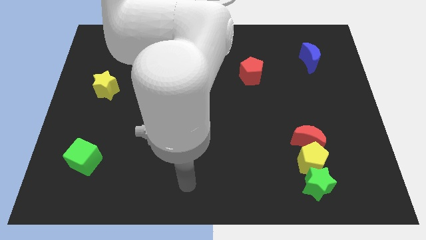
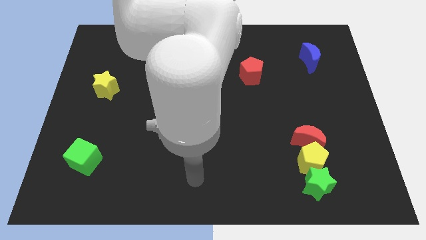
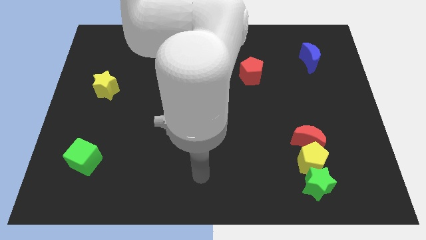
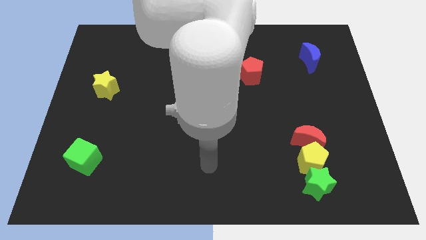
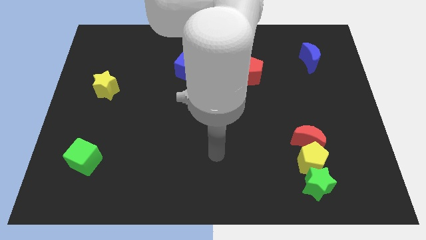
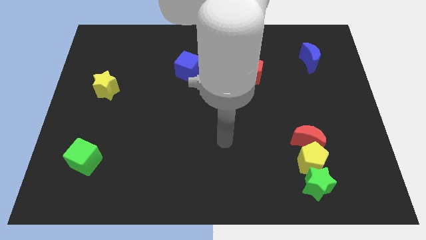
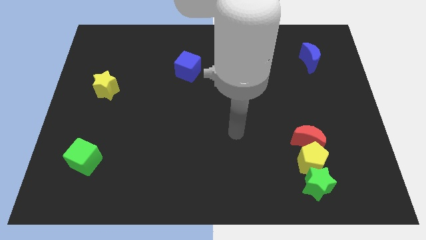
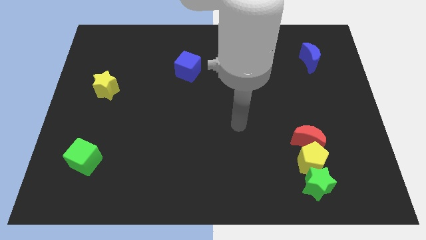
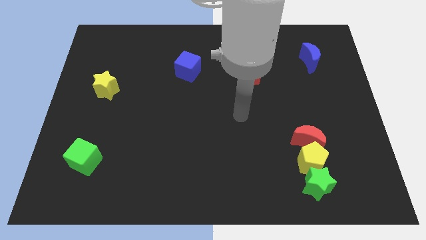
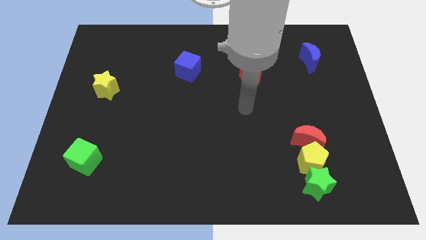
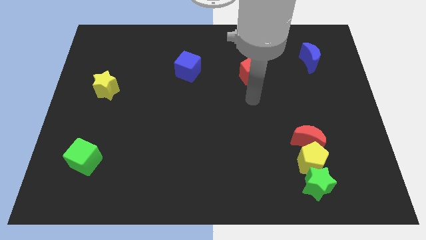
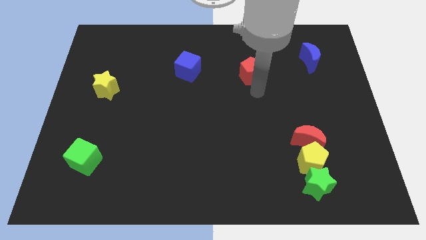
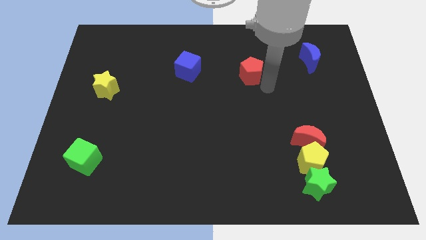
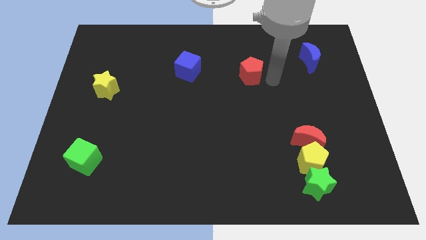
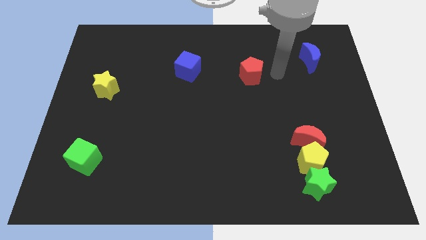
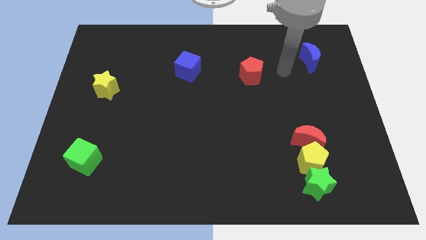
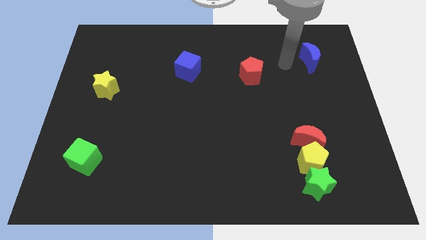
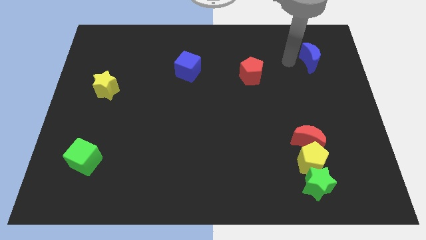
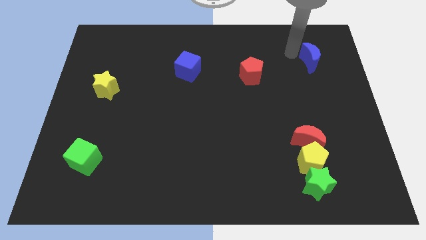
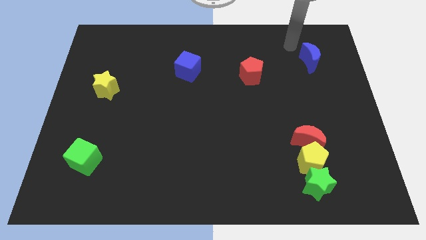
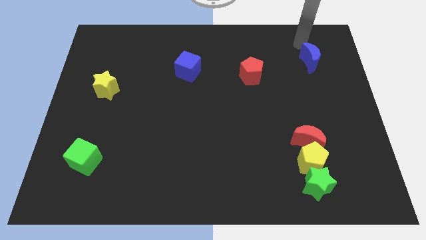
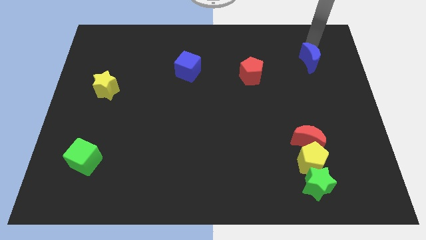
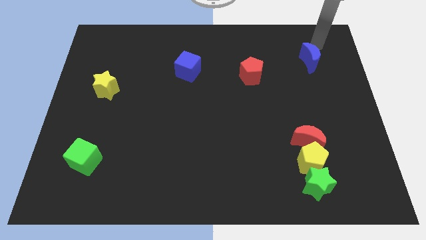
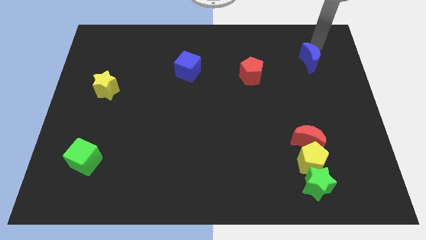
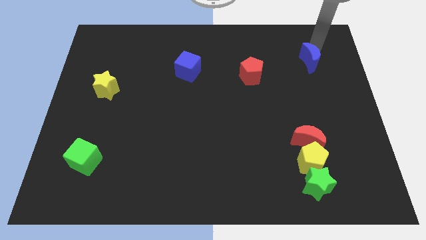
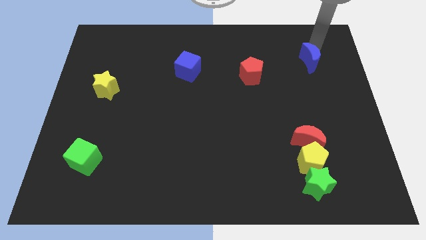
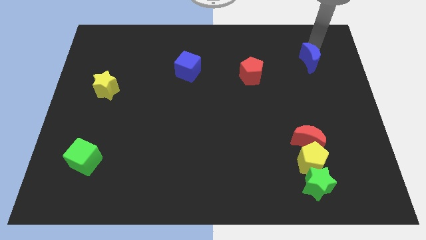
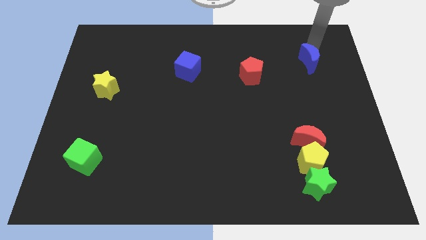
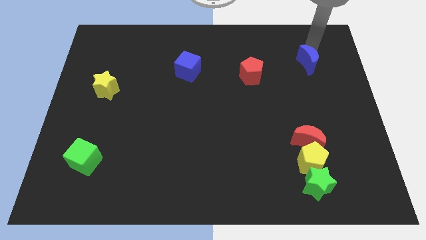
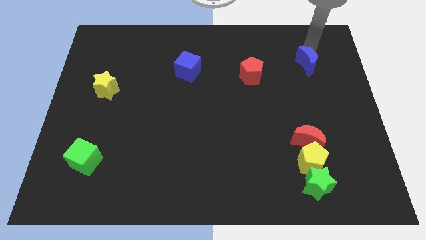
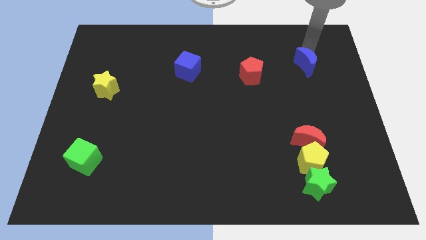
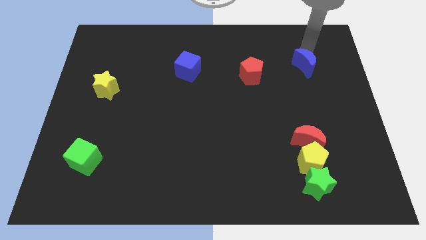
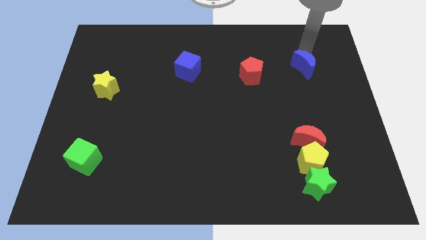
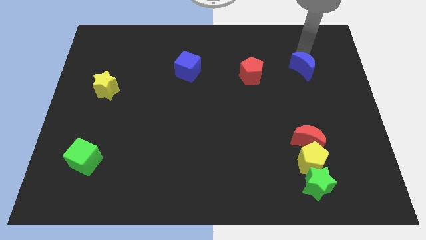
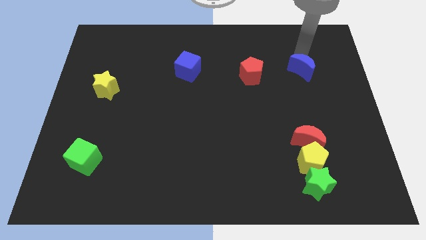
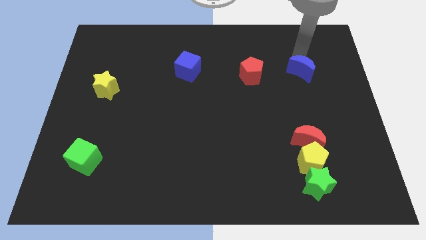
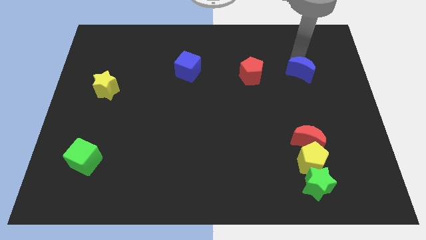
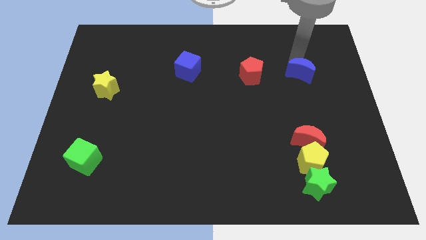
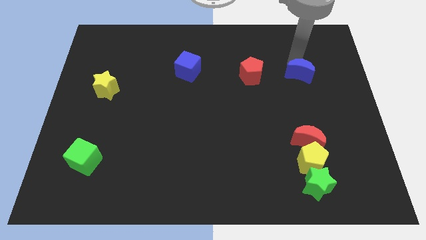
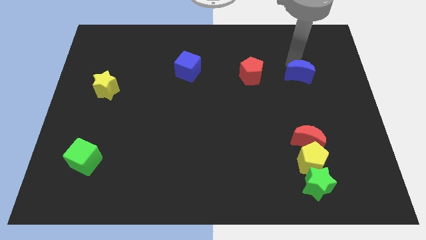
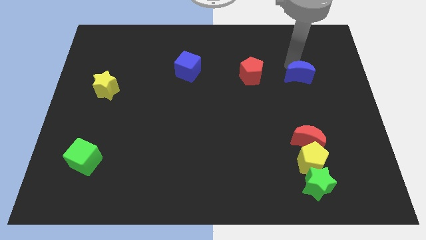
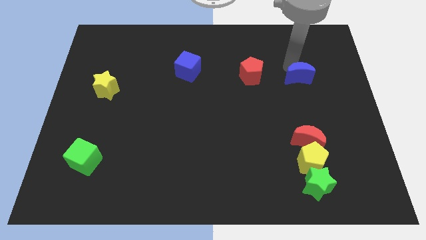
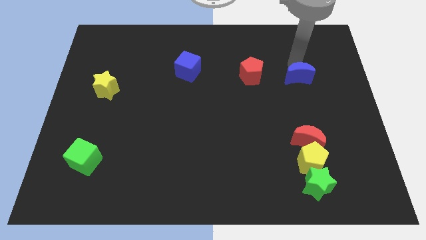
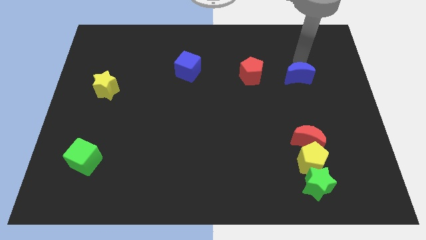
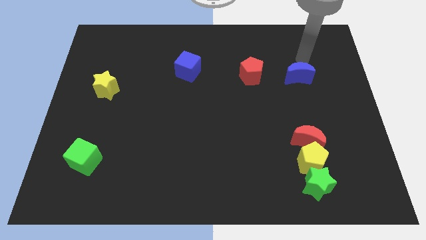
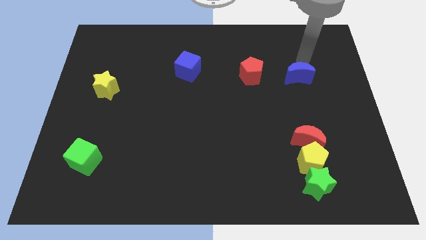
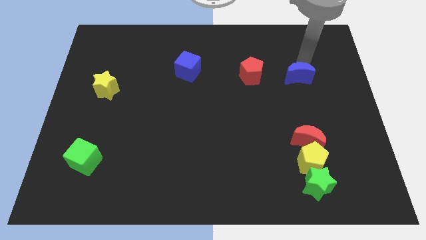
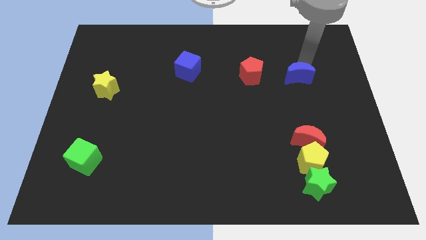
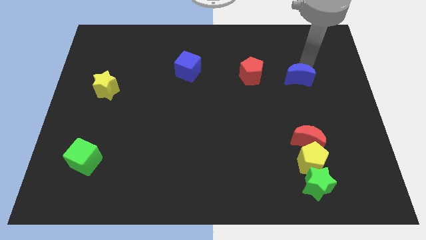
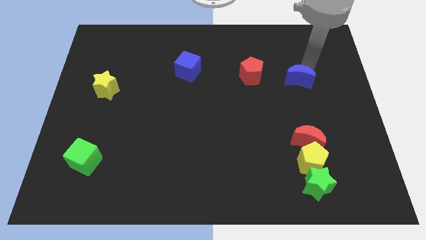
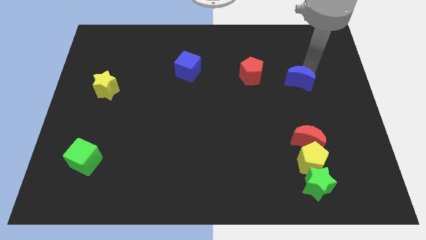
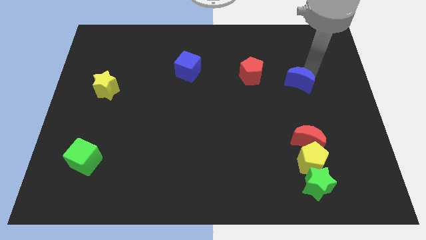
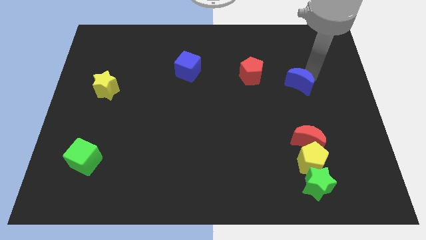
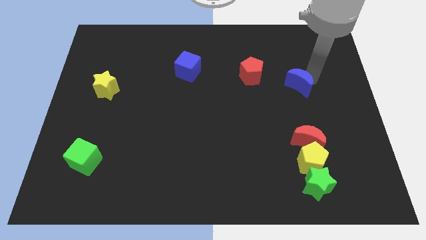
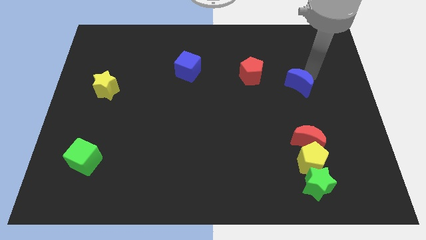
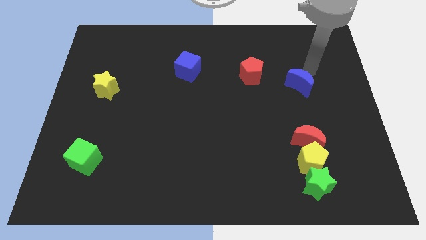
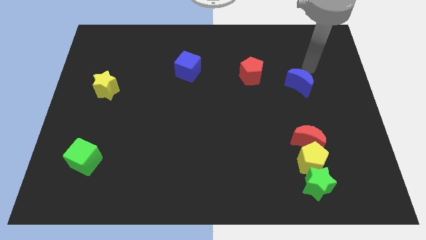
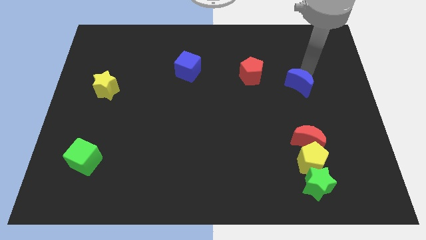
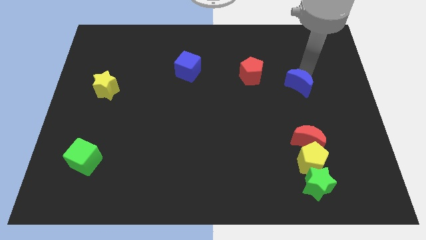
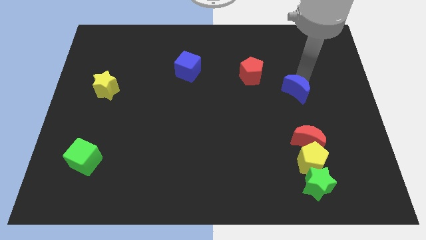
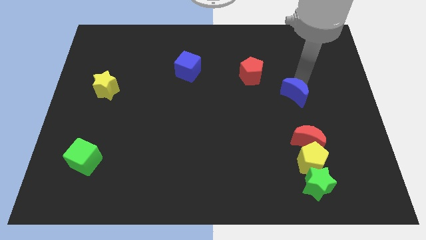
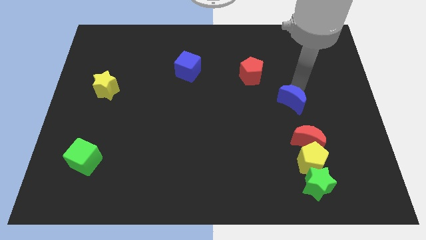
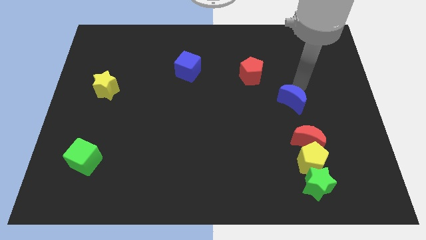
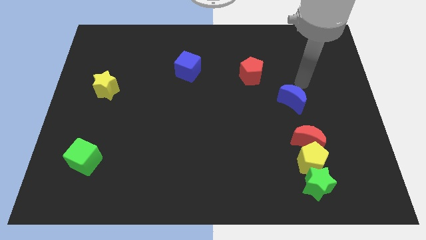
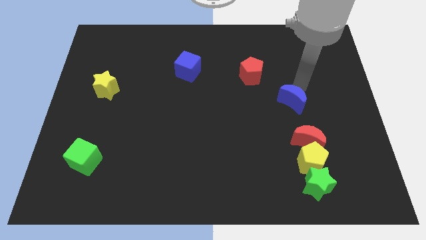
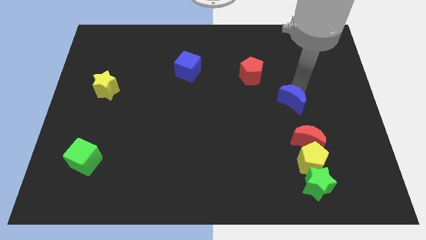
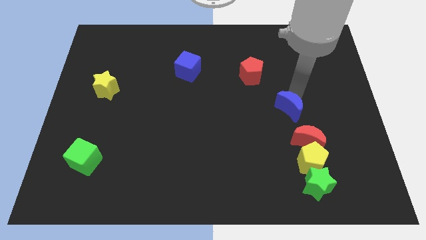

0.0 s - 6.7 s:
move the blue moon diagonally up and to the left of the red moon

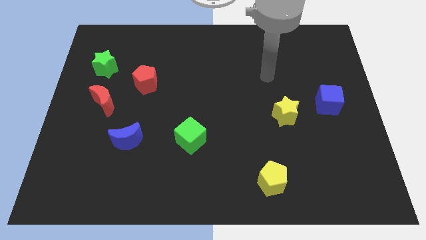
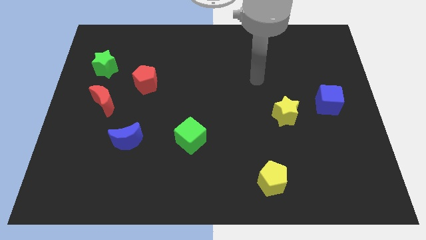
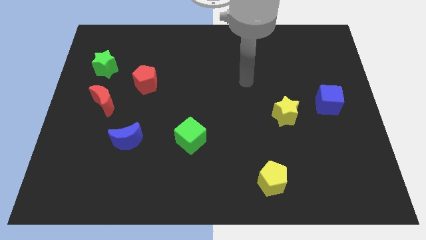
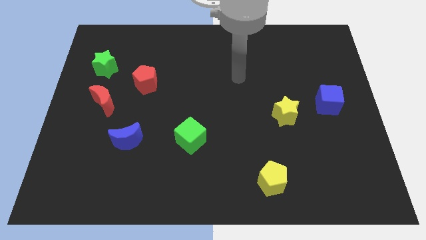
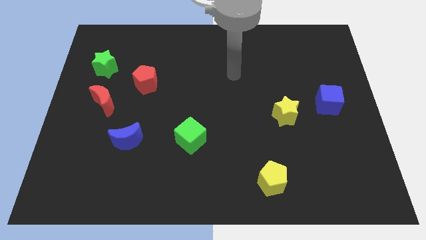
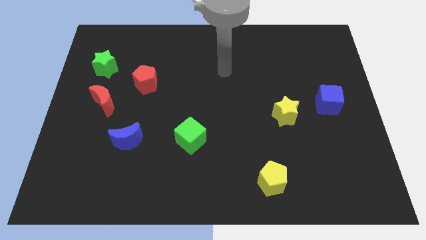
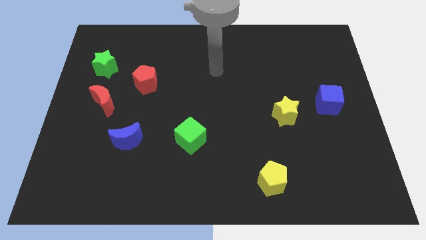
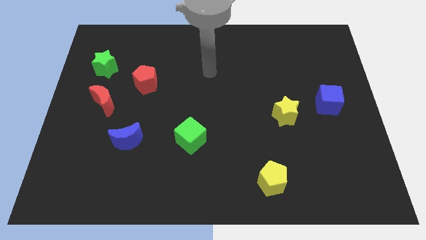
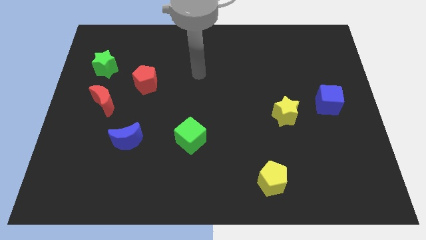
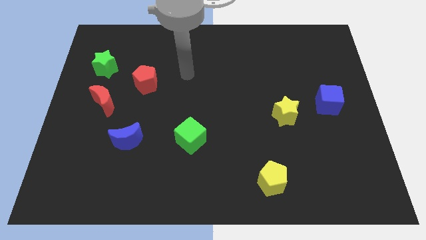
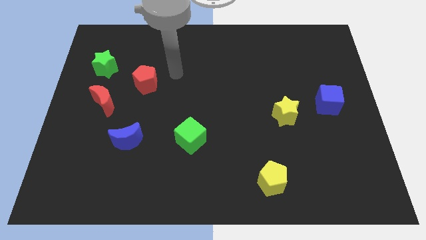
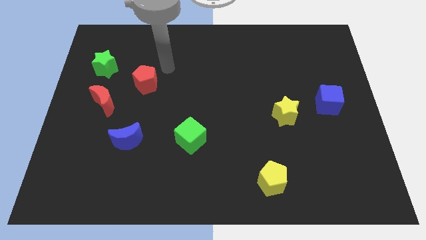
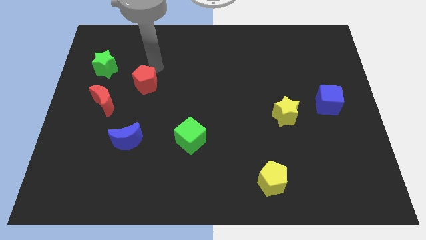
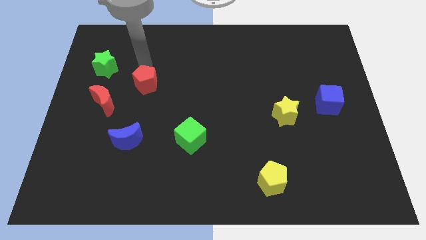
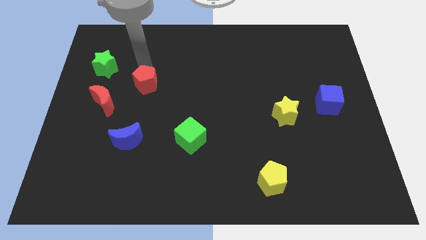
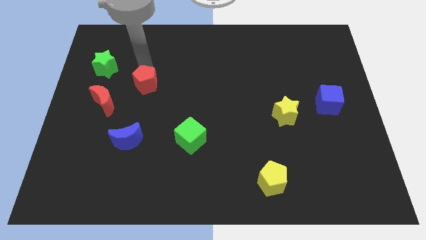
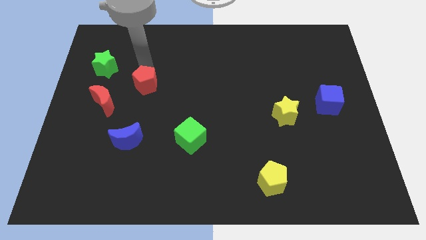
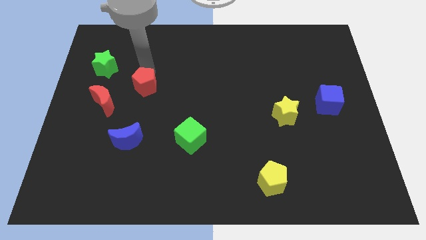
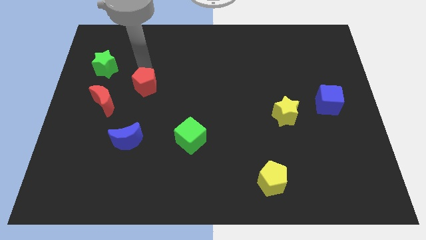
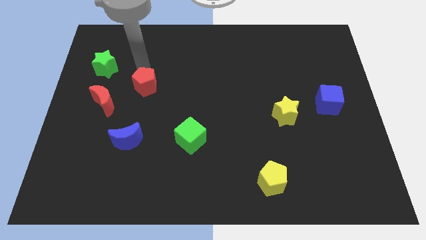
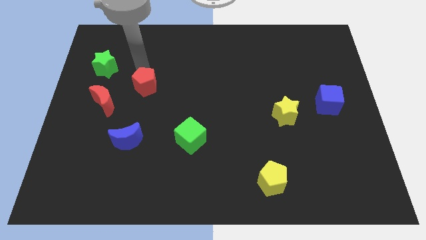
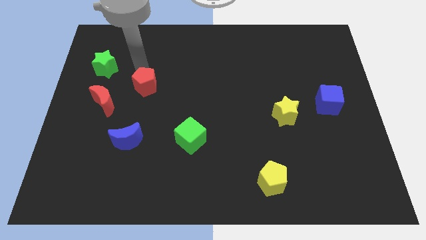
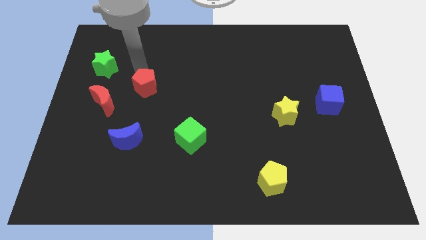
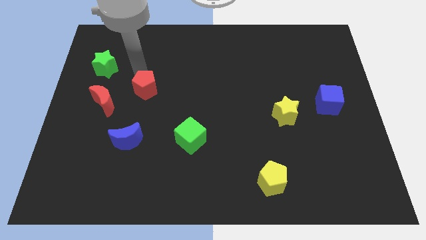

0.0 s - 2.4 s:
slide the red pentagon just right of the red moon
